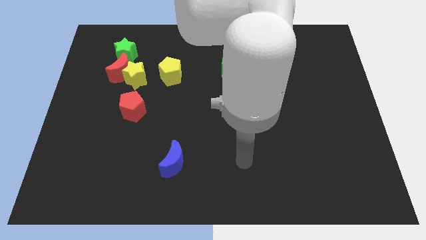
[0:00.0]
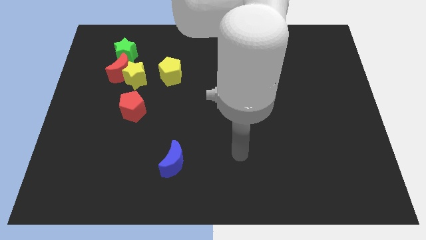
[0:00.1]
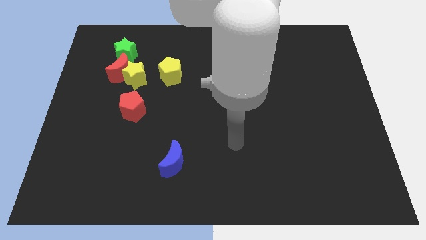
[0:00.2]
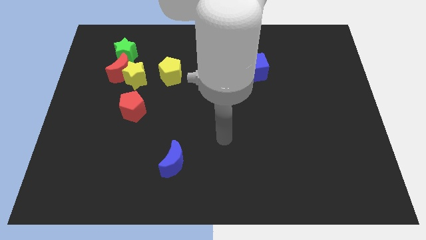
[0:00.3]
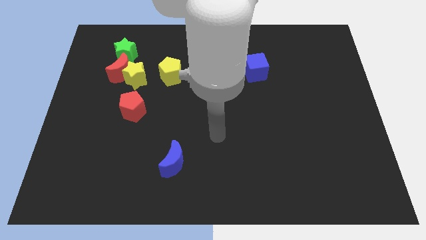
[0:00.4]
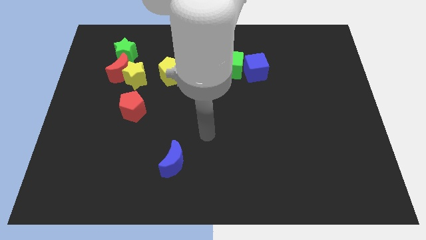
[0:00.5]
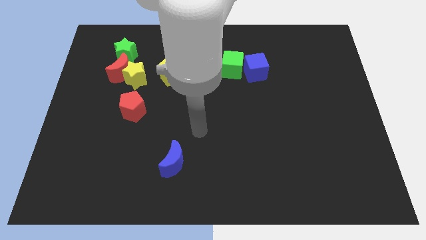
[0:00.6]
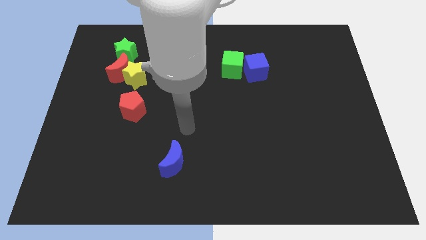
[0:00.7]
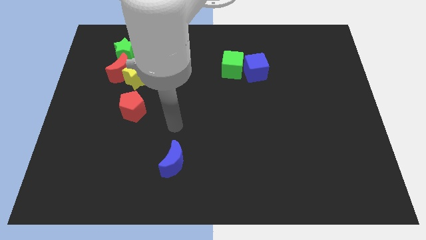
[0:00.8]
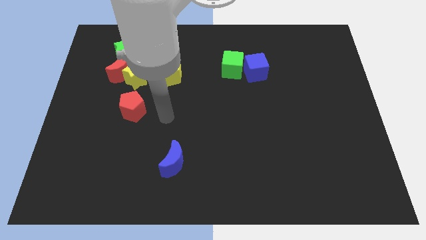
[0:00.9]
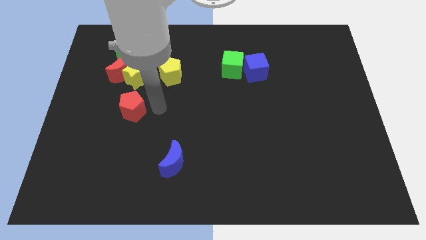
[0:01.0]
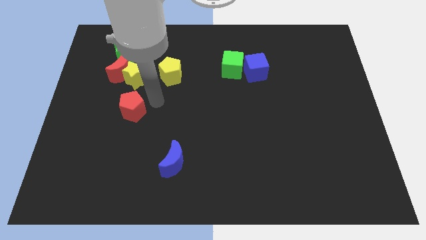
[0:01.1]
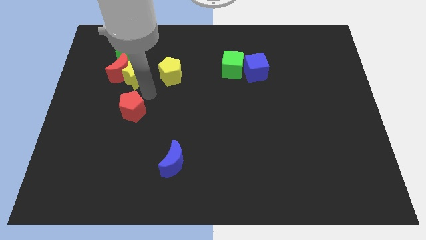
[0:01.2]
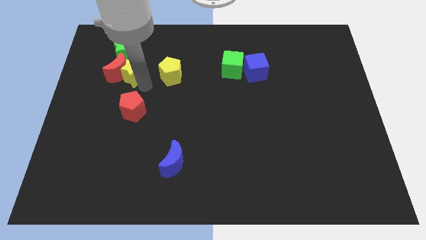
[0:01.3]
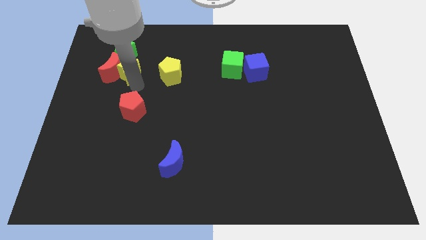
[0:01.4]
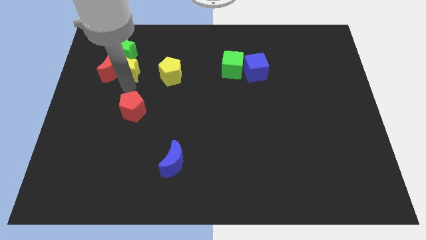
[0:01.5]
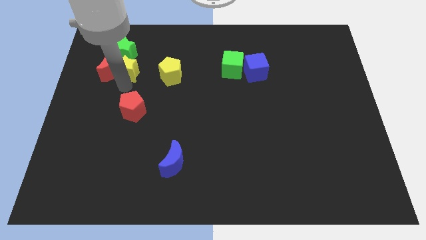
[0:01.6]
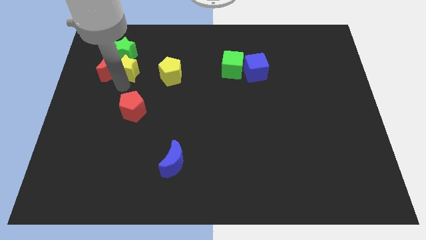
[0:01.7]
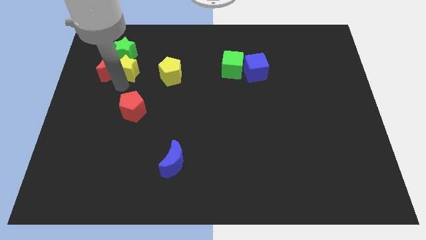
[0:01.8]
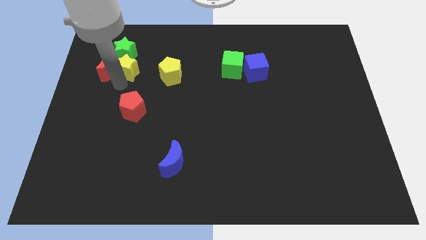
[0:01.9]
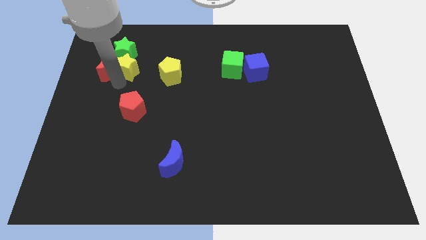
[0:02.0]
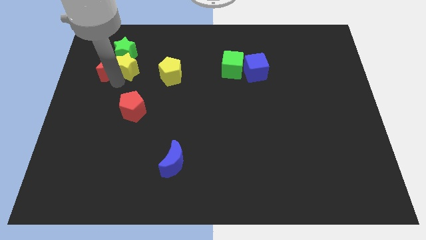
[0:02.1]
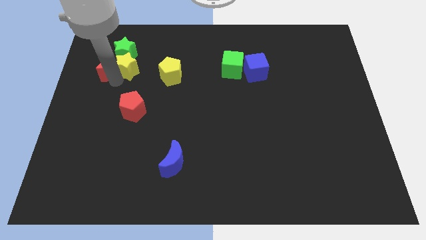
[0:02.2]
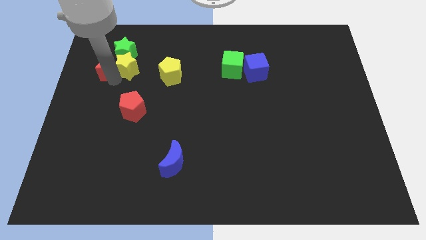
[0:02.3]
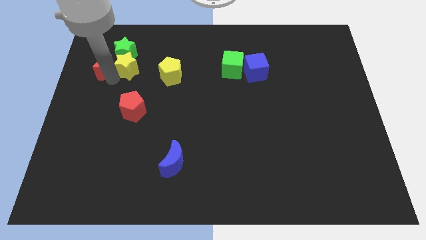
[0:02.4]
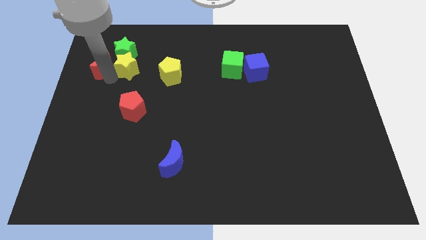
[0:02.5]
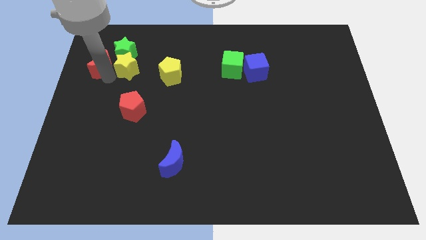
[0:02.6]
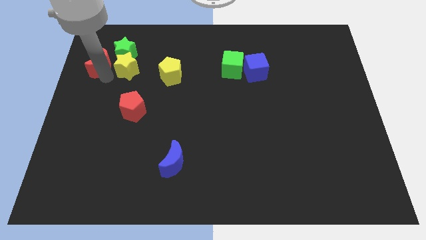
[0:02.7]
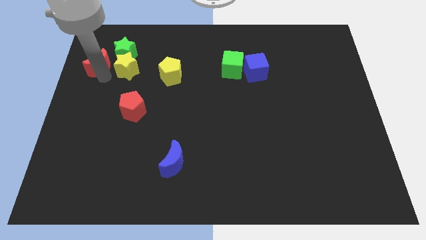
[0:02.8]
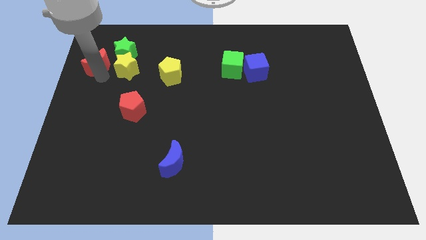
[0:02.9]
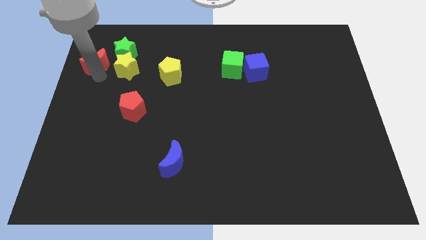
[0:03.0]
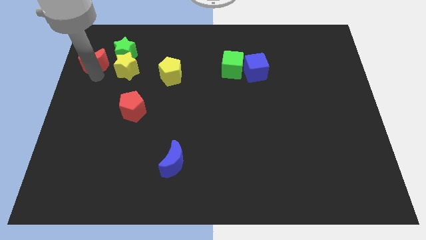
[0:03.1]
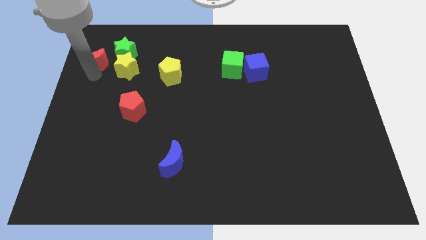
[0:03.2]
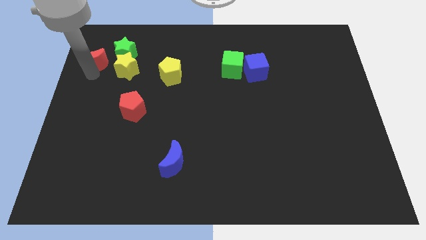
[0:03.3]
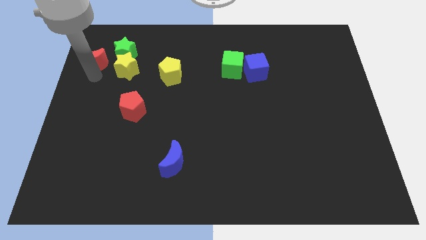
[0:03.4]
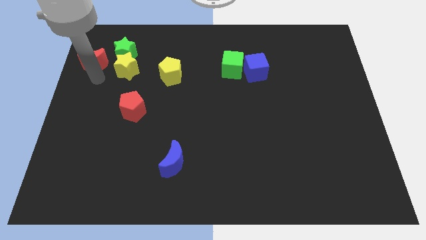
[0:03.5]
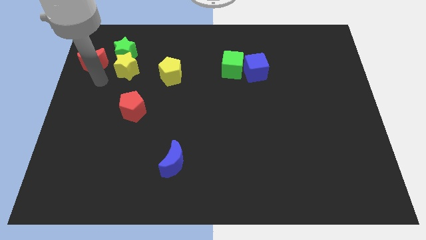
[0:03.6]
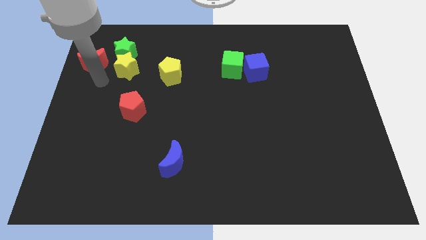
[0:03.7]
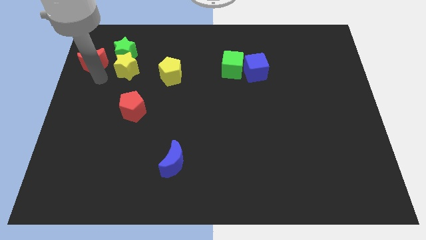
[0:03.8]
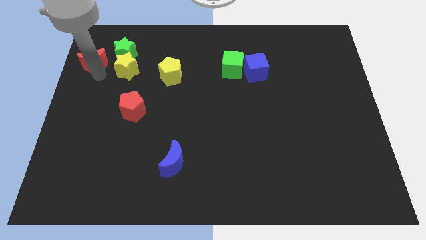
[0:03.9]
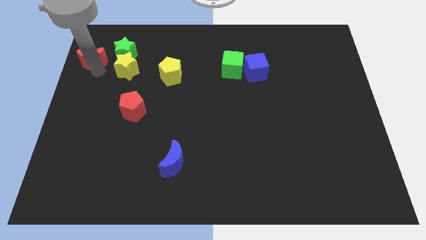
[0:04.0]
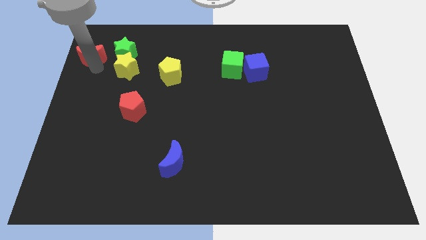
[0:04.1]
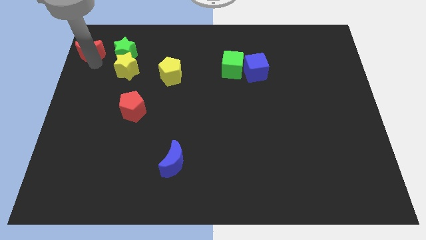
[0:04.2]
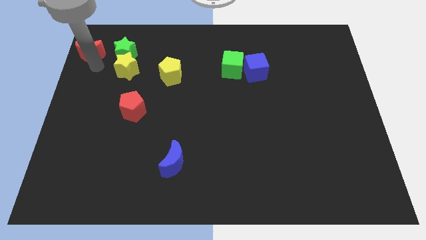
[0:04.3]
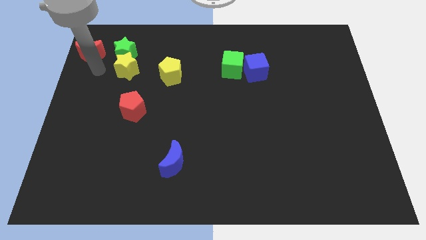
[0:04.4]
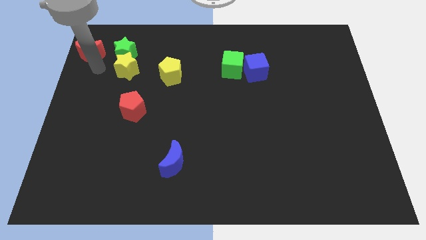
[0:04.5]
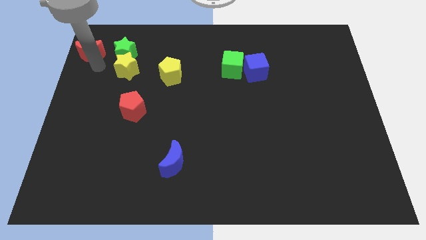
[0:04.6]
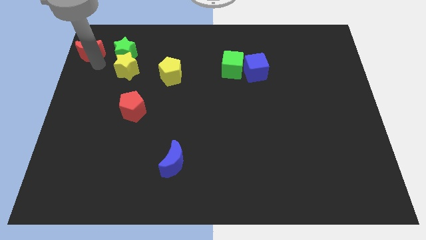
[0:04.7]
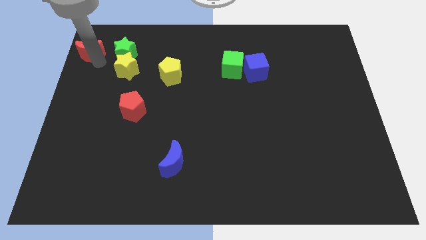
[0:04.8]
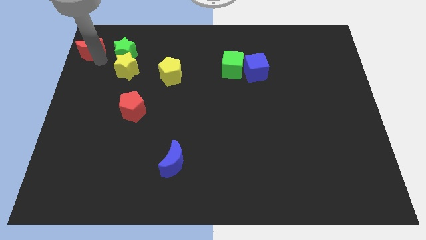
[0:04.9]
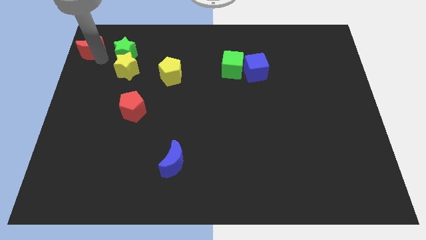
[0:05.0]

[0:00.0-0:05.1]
slide the red moon to the top left
